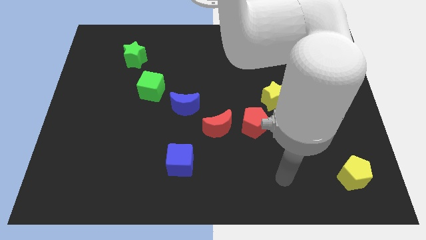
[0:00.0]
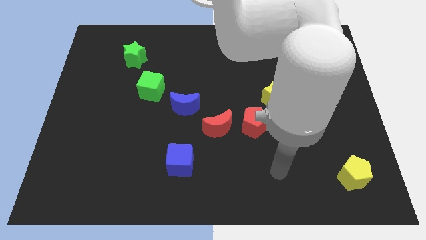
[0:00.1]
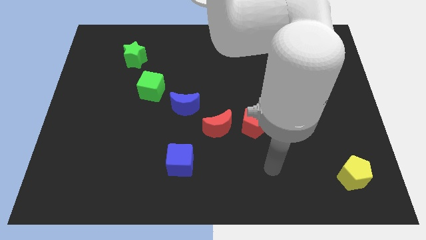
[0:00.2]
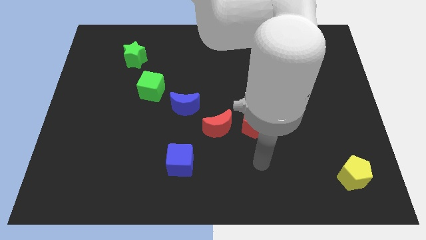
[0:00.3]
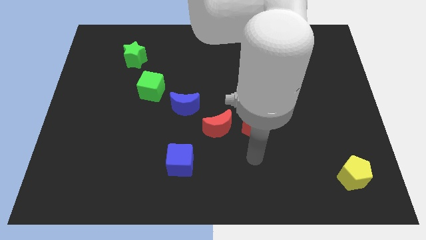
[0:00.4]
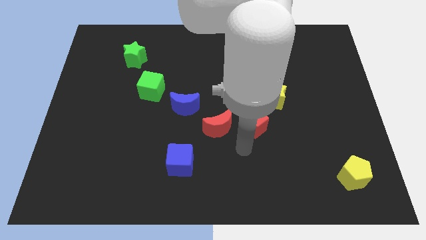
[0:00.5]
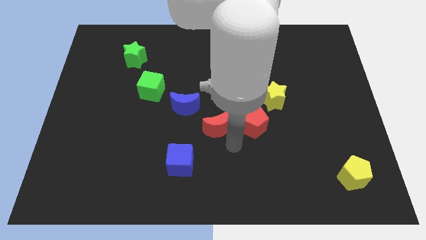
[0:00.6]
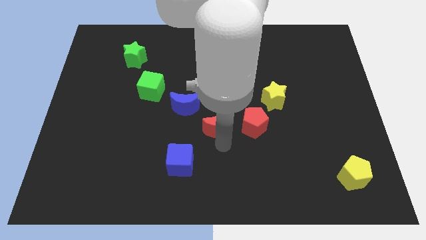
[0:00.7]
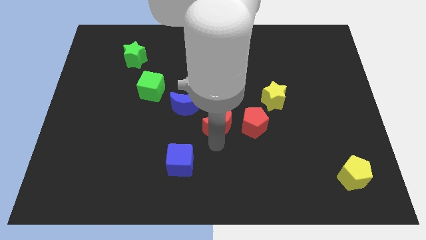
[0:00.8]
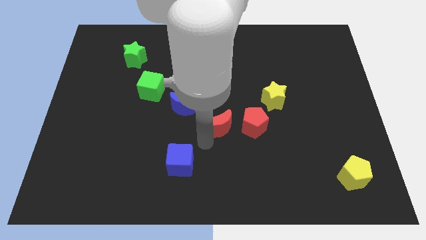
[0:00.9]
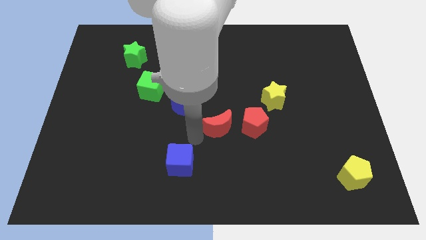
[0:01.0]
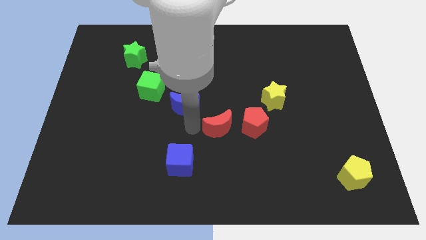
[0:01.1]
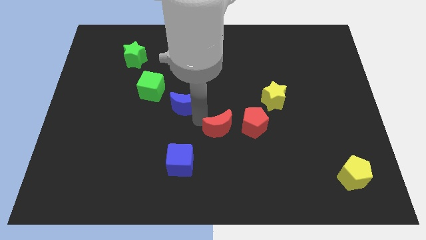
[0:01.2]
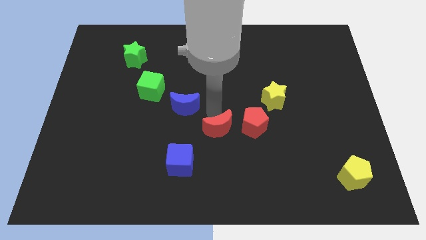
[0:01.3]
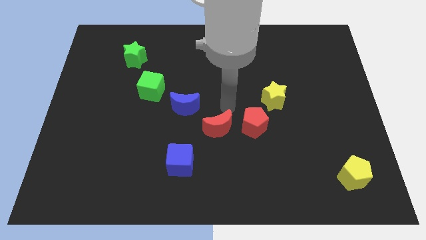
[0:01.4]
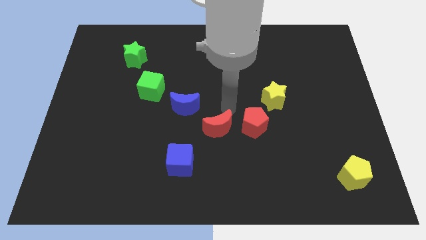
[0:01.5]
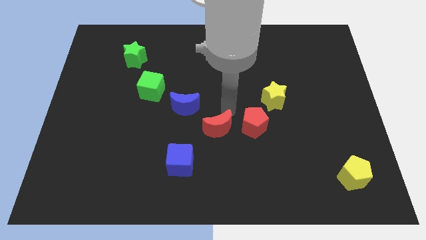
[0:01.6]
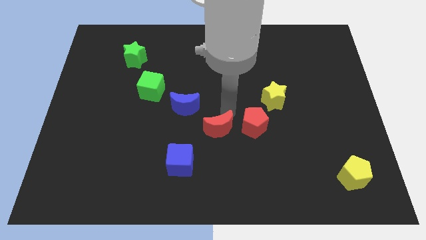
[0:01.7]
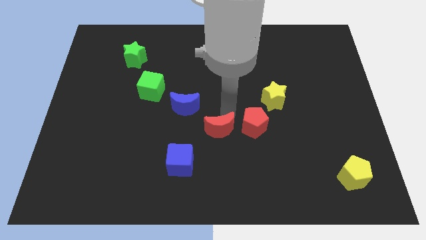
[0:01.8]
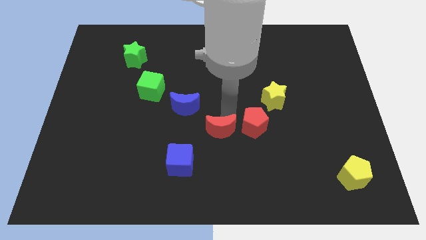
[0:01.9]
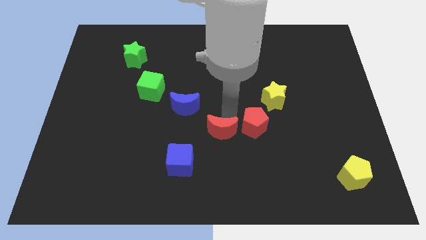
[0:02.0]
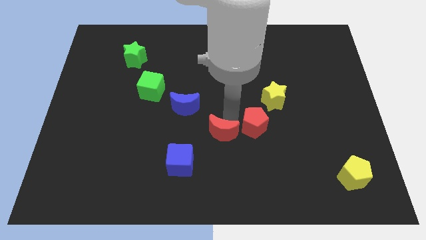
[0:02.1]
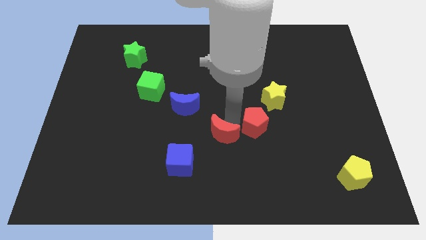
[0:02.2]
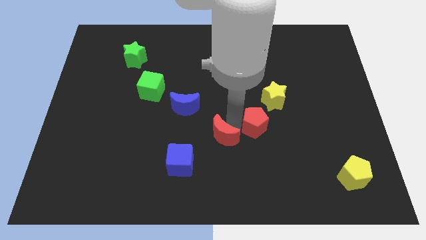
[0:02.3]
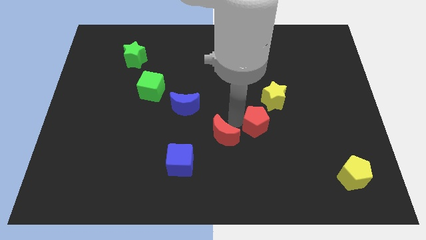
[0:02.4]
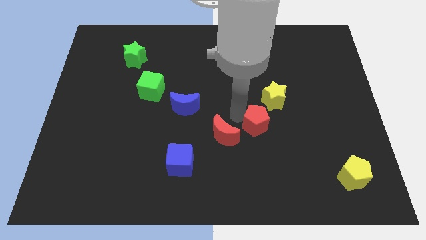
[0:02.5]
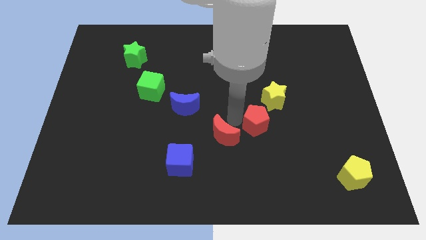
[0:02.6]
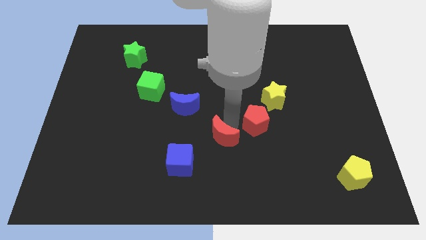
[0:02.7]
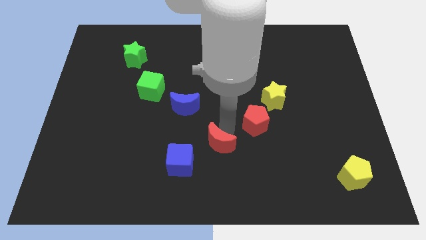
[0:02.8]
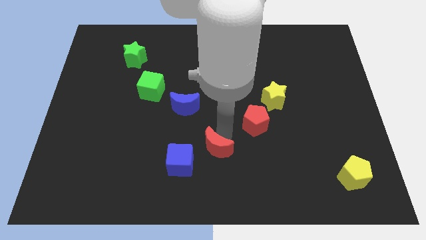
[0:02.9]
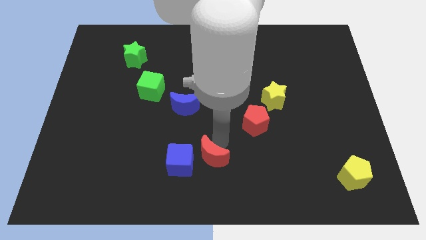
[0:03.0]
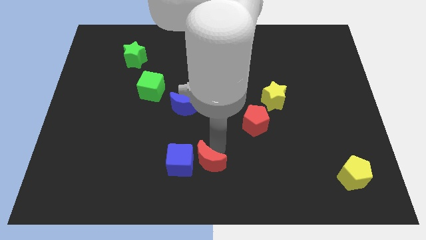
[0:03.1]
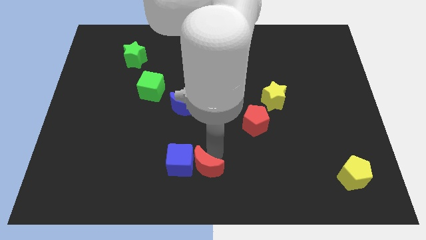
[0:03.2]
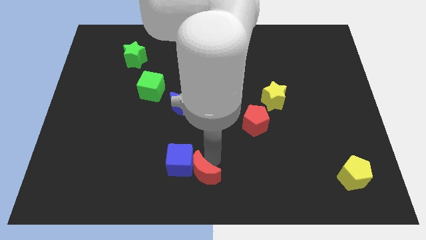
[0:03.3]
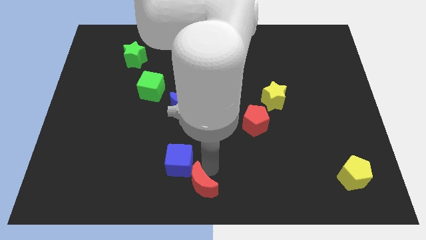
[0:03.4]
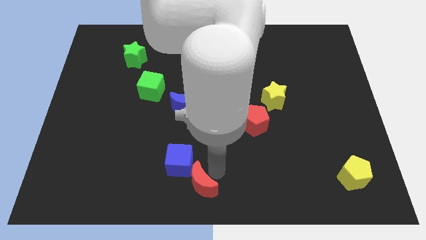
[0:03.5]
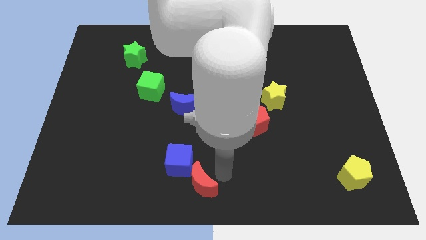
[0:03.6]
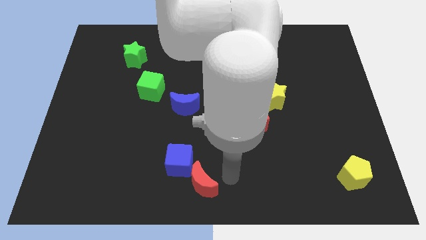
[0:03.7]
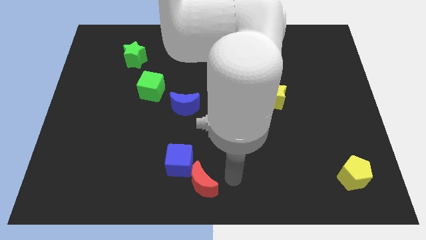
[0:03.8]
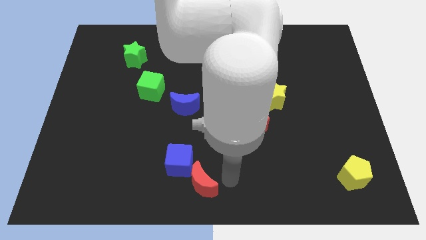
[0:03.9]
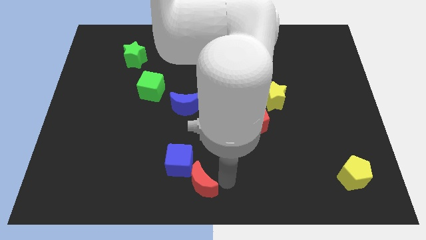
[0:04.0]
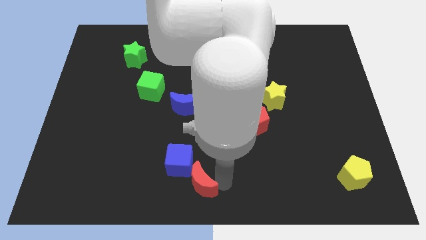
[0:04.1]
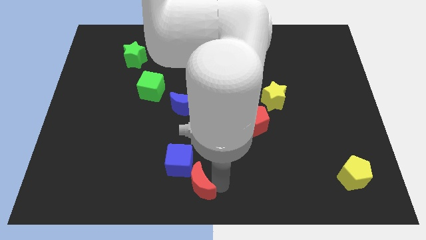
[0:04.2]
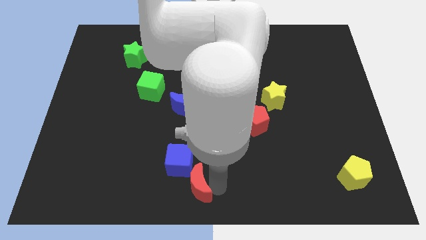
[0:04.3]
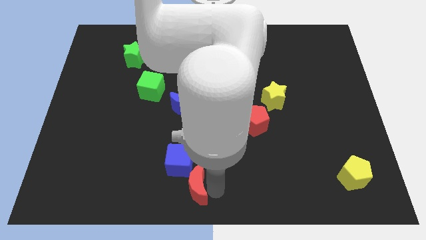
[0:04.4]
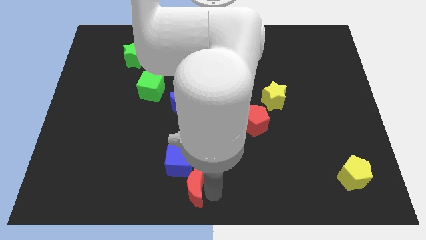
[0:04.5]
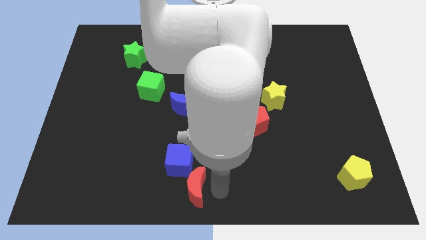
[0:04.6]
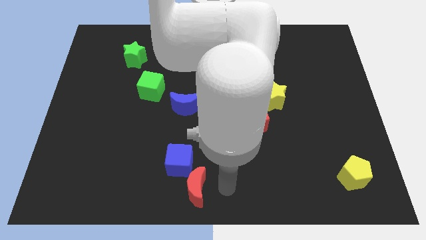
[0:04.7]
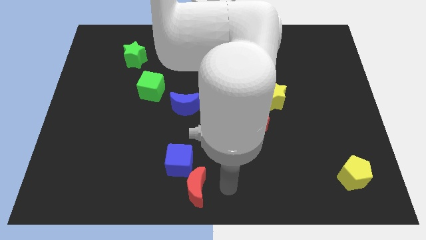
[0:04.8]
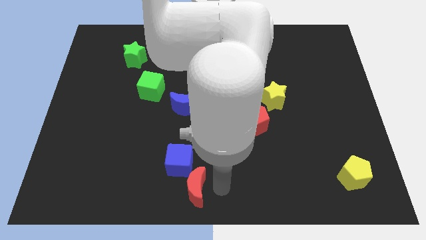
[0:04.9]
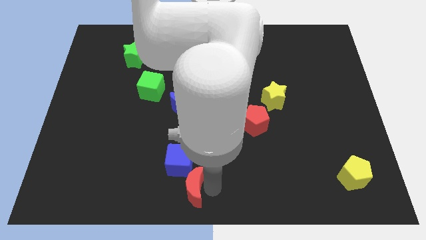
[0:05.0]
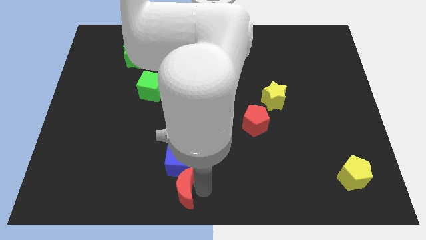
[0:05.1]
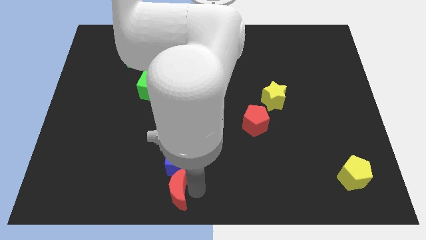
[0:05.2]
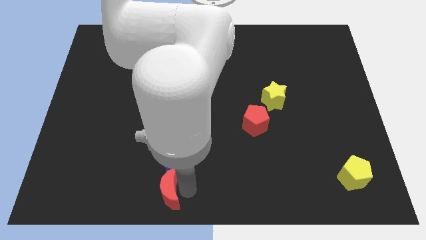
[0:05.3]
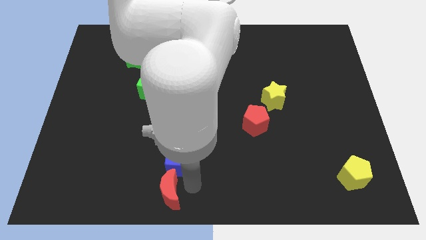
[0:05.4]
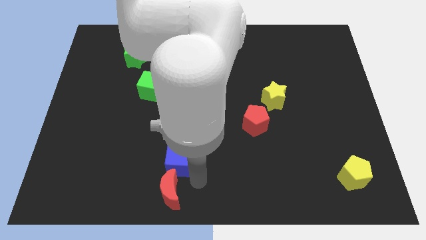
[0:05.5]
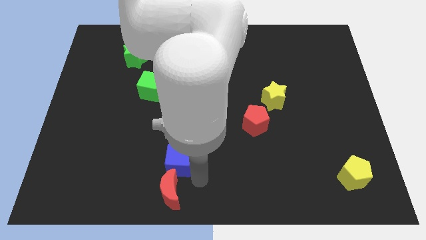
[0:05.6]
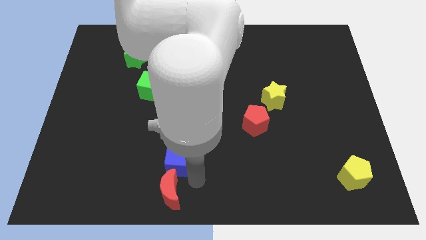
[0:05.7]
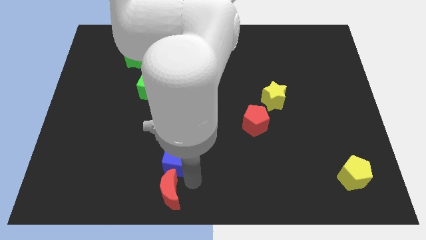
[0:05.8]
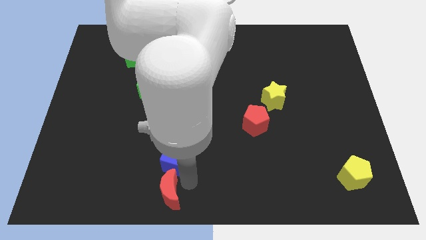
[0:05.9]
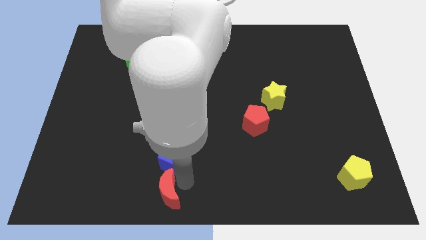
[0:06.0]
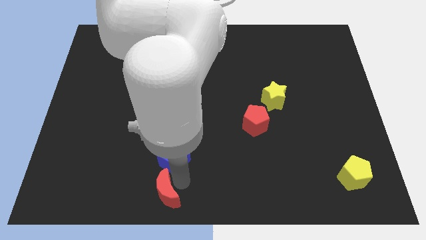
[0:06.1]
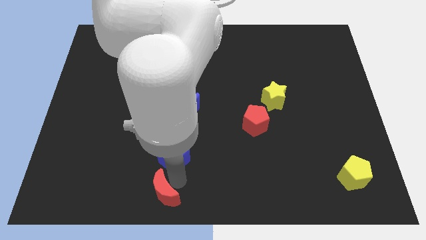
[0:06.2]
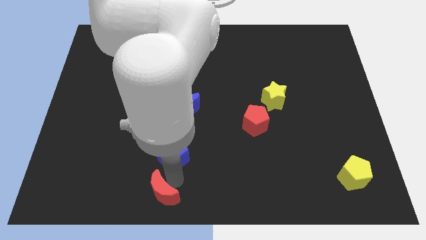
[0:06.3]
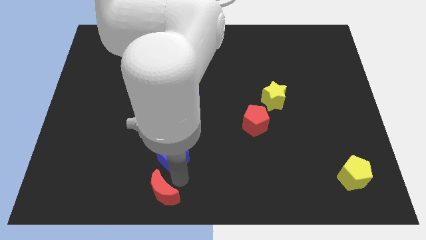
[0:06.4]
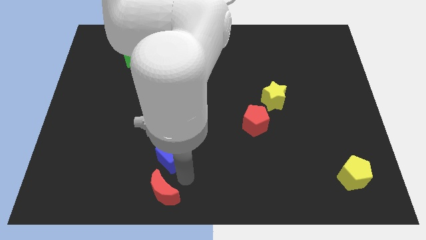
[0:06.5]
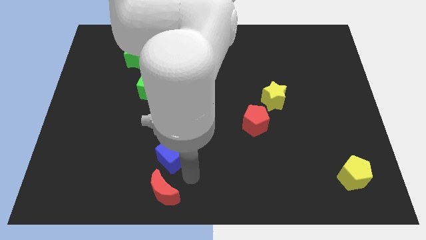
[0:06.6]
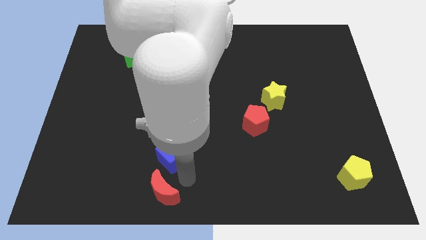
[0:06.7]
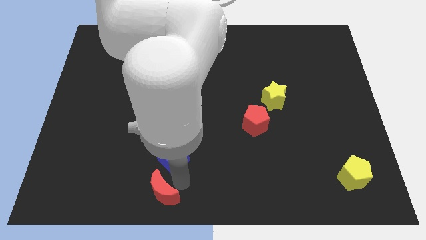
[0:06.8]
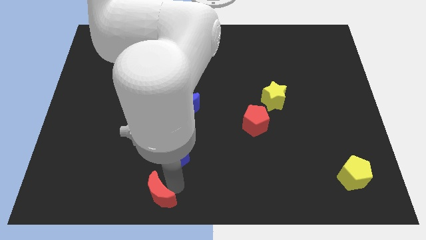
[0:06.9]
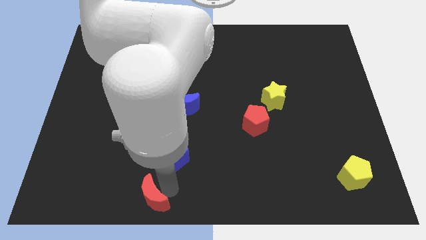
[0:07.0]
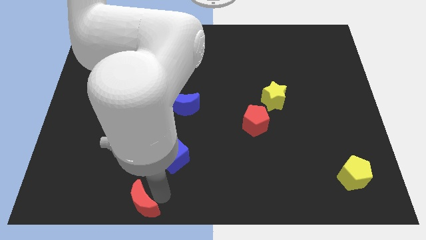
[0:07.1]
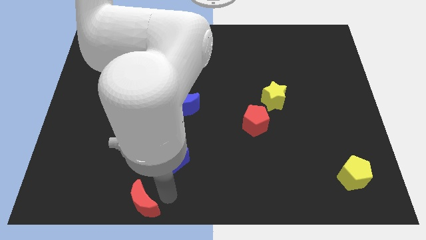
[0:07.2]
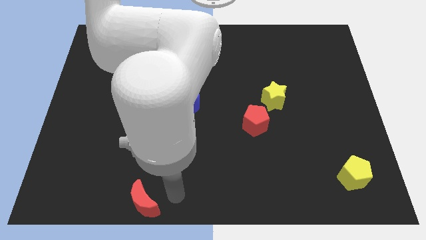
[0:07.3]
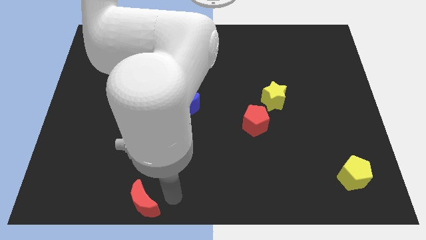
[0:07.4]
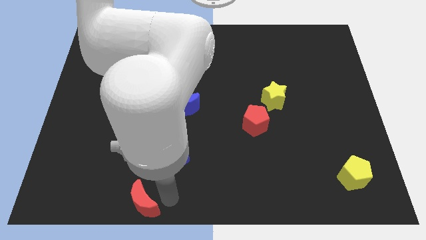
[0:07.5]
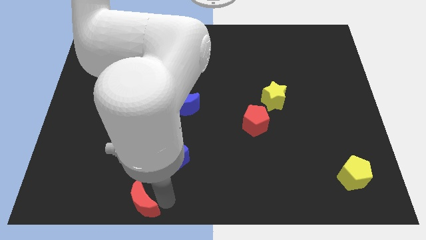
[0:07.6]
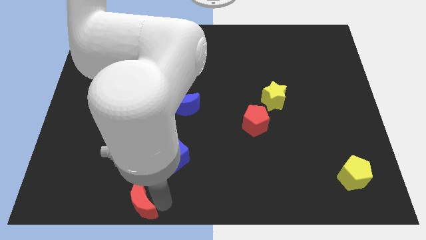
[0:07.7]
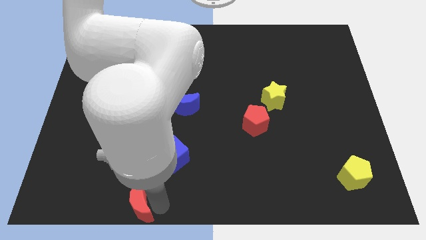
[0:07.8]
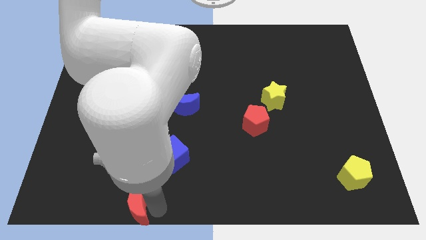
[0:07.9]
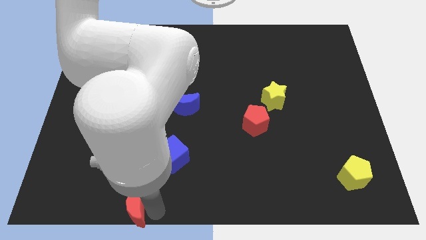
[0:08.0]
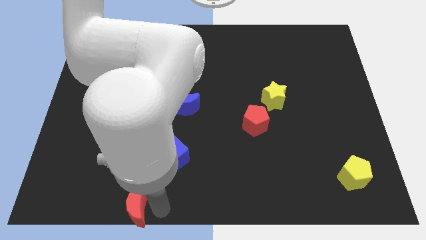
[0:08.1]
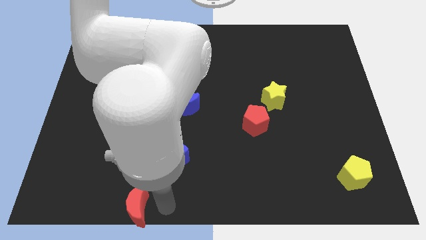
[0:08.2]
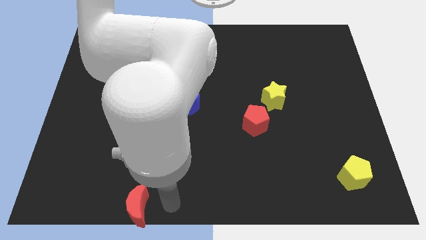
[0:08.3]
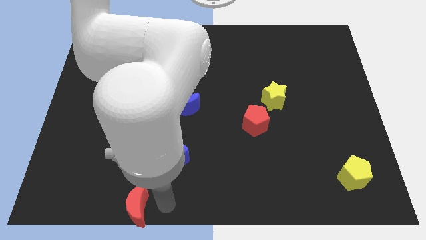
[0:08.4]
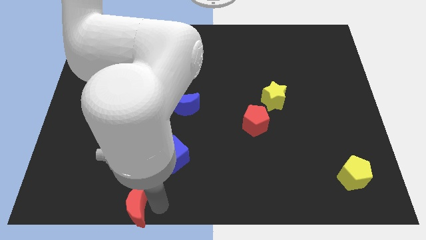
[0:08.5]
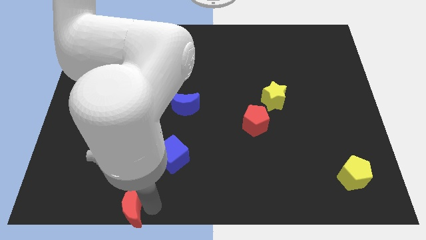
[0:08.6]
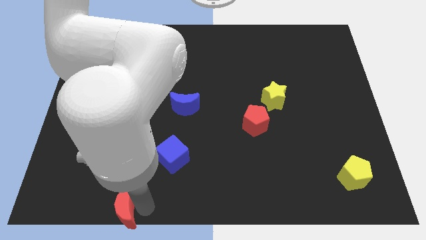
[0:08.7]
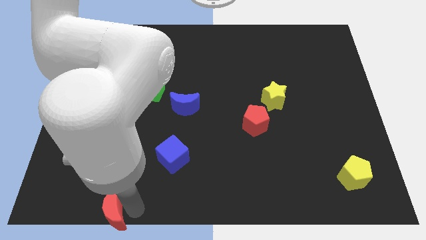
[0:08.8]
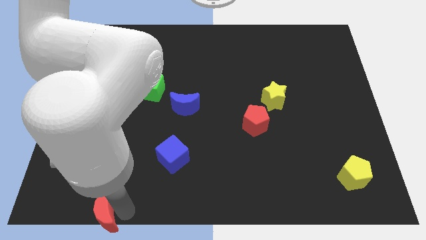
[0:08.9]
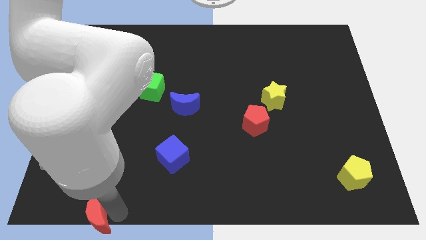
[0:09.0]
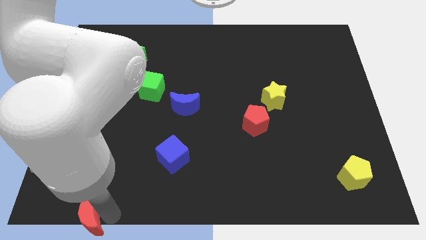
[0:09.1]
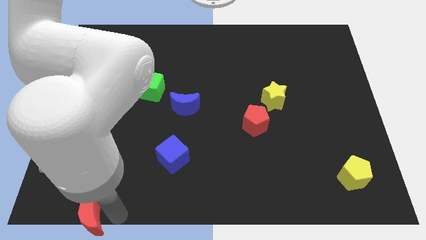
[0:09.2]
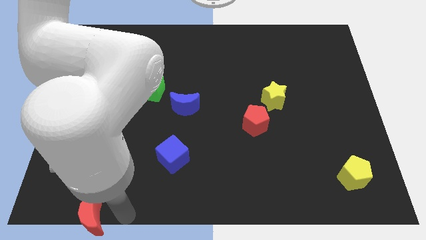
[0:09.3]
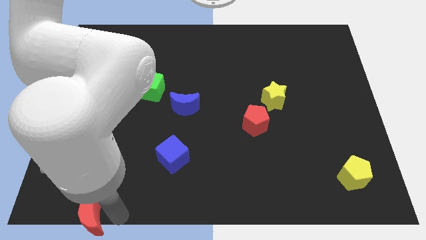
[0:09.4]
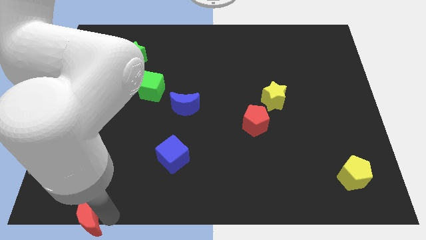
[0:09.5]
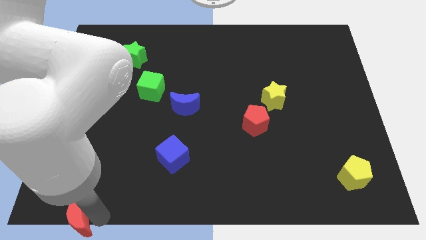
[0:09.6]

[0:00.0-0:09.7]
slide the red moon to the bottom left corner
